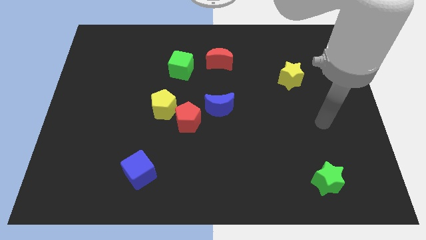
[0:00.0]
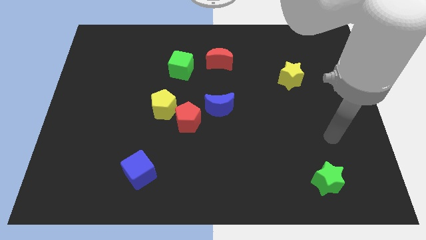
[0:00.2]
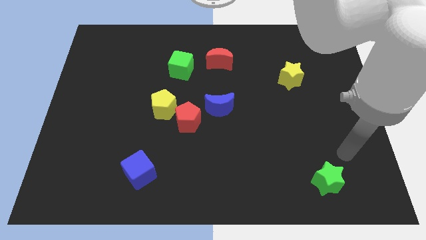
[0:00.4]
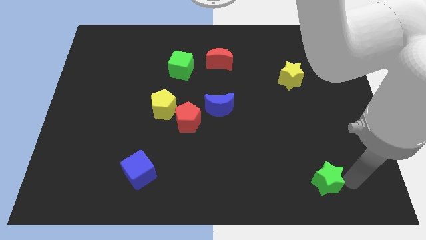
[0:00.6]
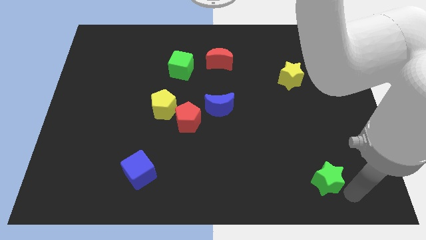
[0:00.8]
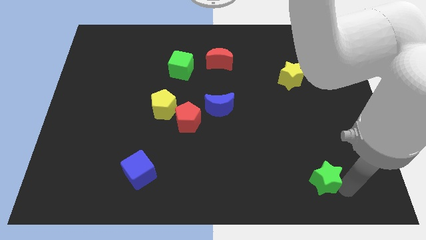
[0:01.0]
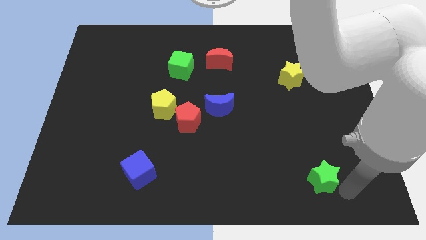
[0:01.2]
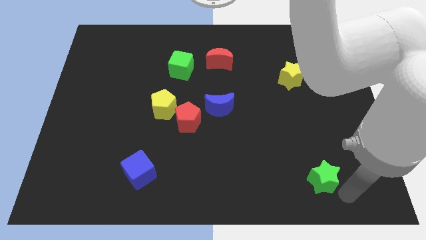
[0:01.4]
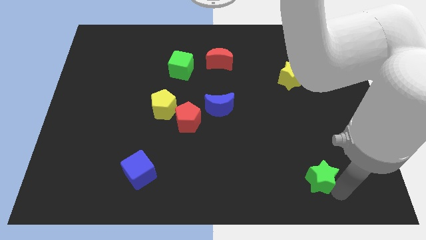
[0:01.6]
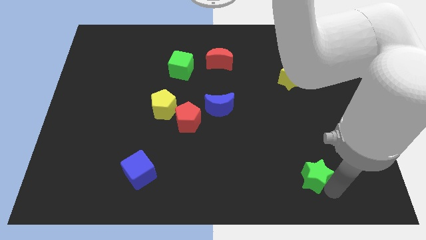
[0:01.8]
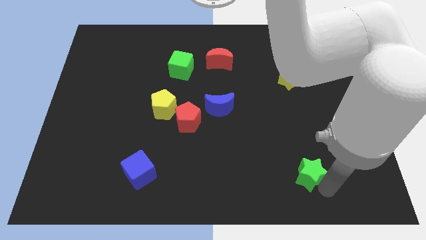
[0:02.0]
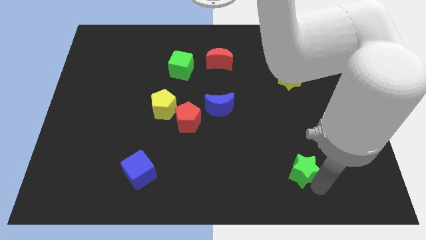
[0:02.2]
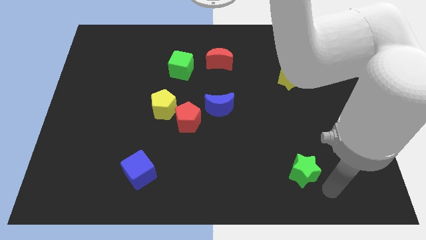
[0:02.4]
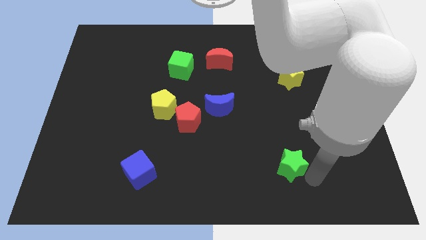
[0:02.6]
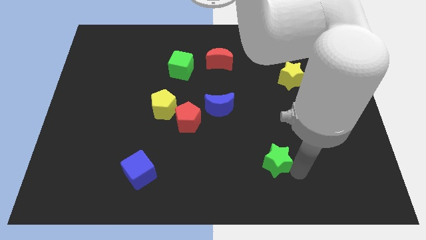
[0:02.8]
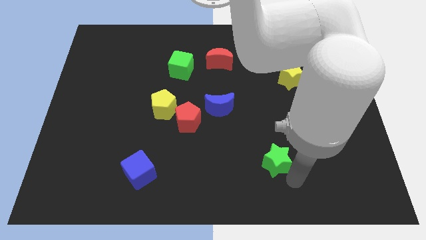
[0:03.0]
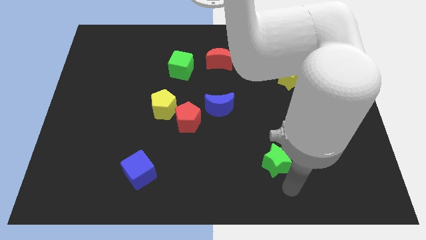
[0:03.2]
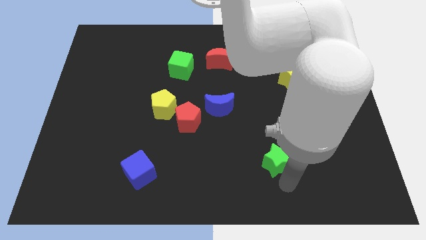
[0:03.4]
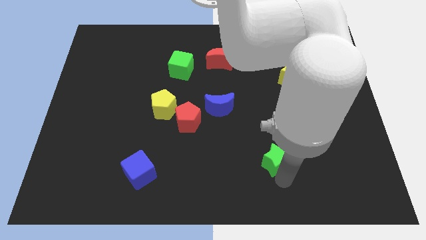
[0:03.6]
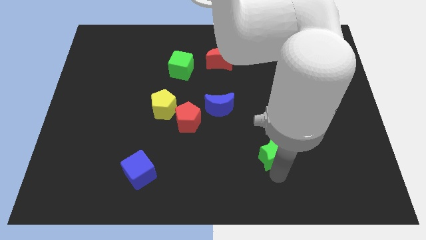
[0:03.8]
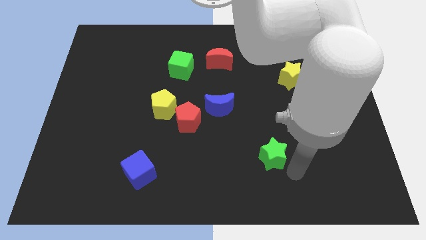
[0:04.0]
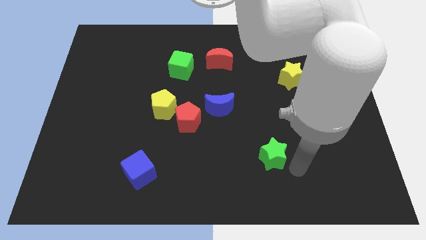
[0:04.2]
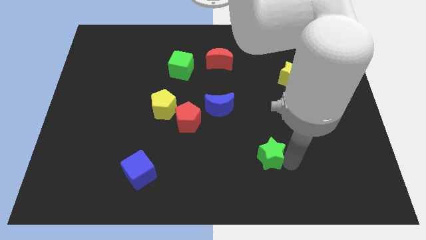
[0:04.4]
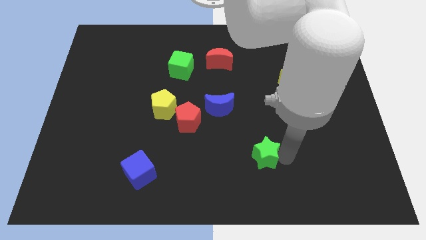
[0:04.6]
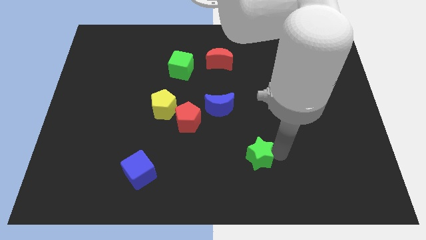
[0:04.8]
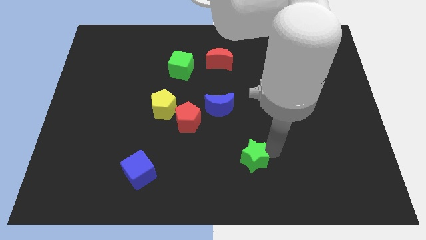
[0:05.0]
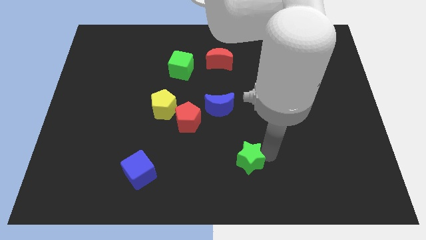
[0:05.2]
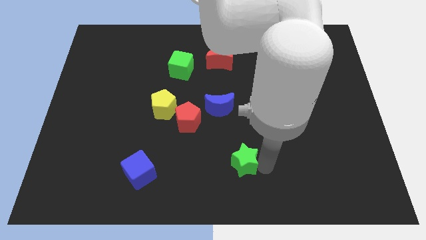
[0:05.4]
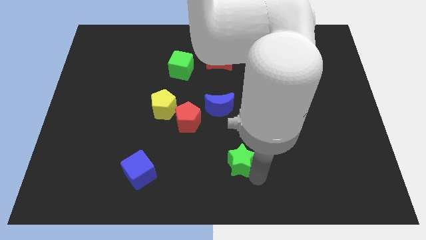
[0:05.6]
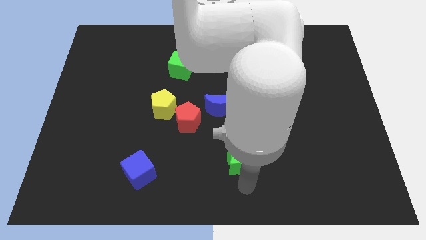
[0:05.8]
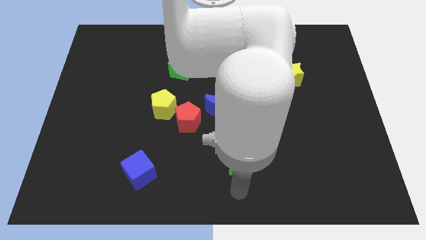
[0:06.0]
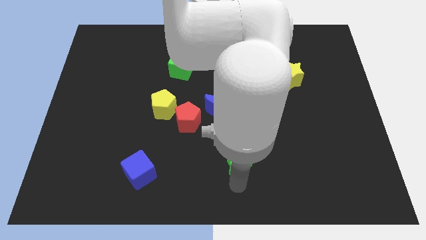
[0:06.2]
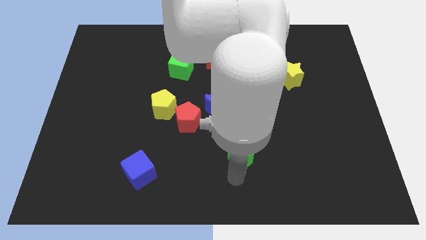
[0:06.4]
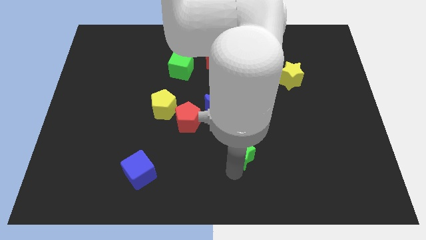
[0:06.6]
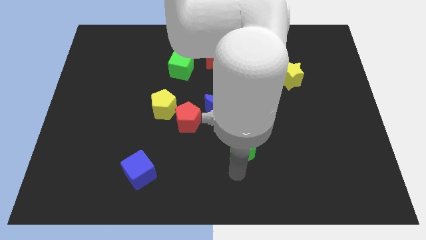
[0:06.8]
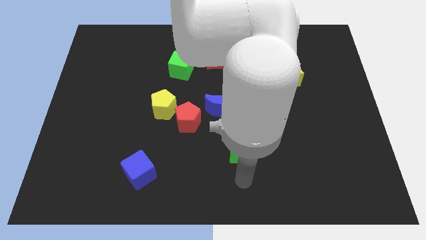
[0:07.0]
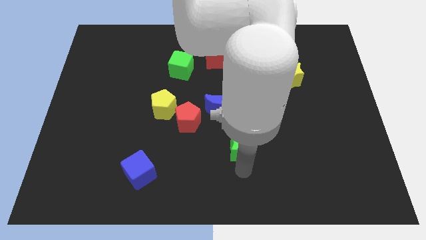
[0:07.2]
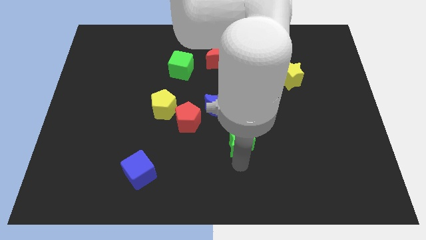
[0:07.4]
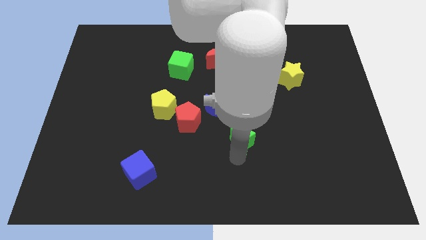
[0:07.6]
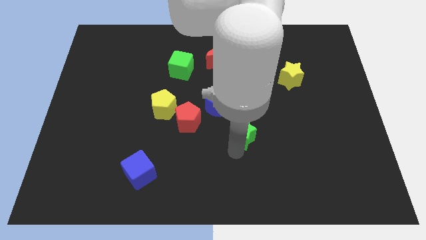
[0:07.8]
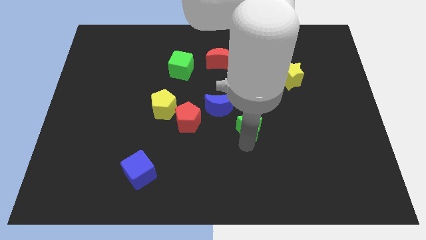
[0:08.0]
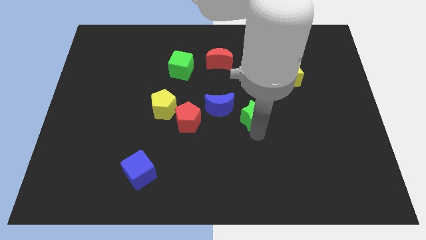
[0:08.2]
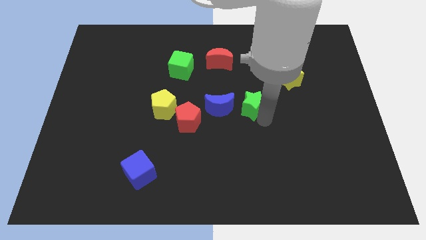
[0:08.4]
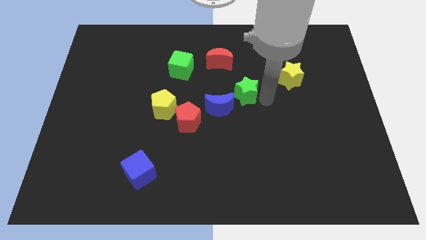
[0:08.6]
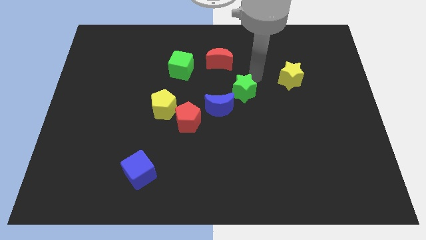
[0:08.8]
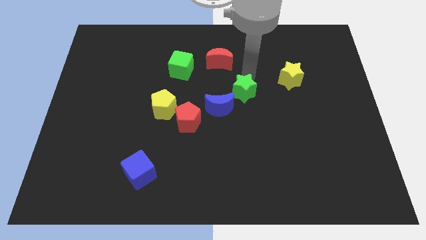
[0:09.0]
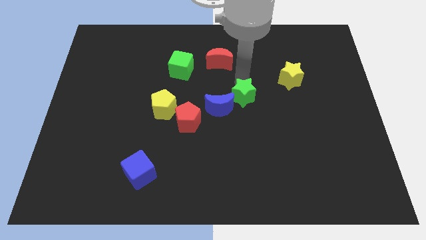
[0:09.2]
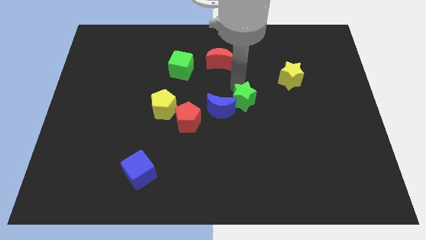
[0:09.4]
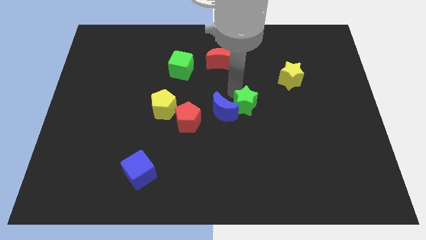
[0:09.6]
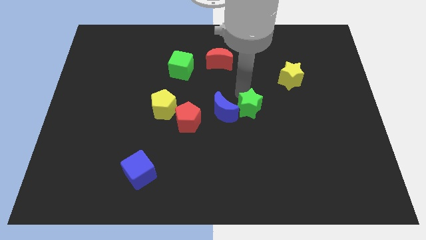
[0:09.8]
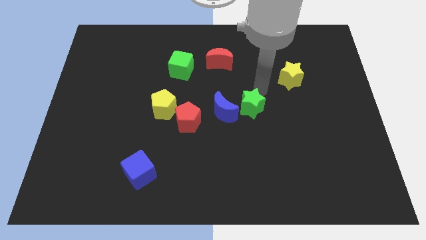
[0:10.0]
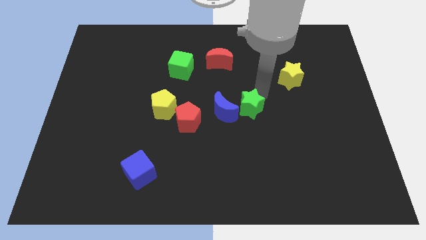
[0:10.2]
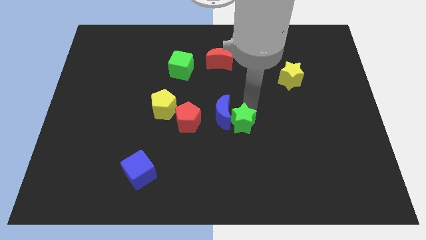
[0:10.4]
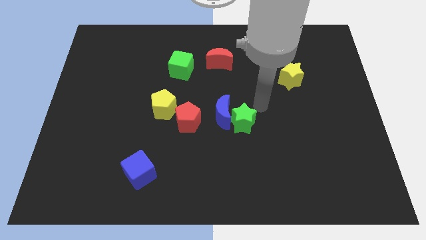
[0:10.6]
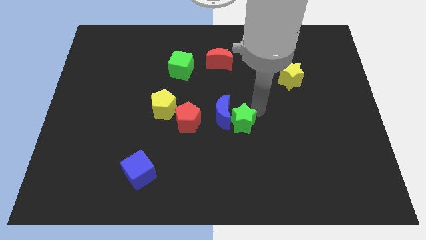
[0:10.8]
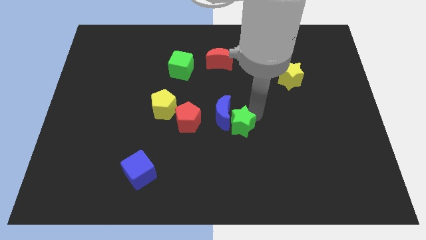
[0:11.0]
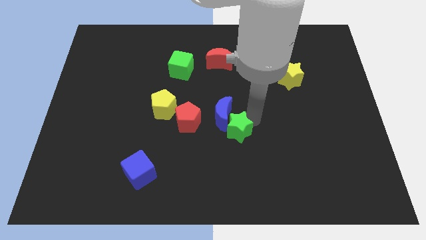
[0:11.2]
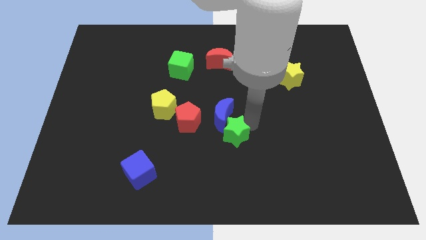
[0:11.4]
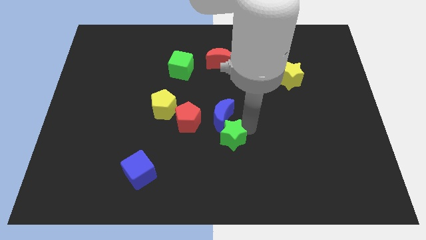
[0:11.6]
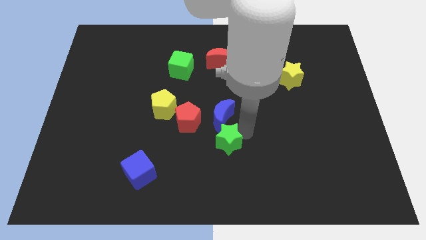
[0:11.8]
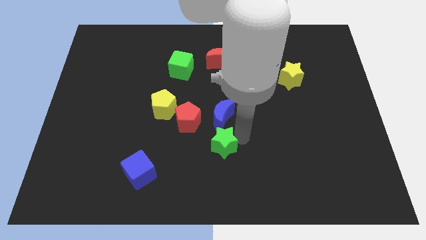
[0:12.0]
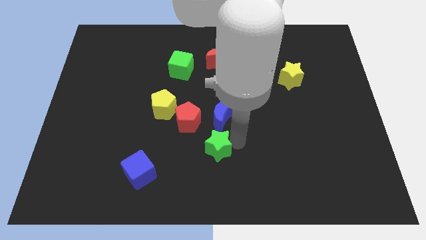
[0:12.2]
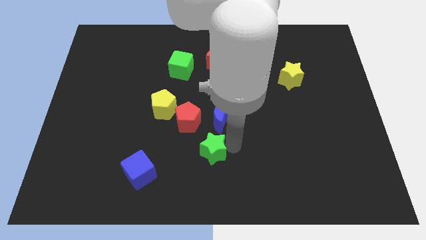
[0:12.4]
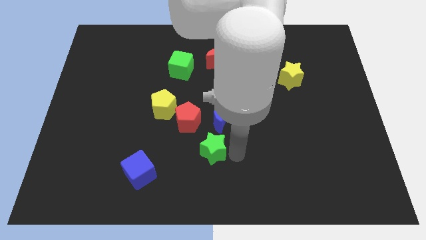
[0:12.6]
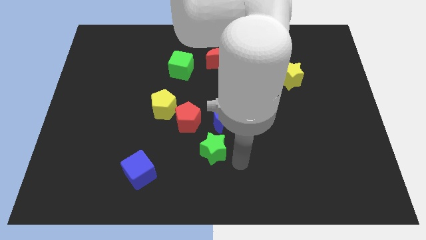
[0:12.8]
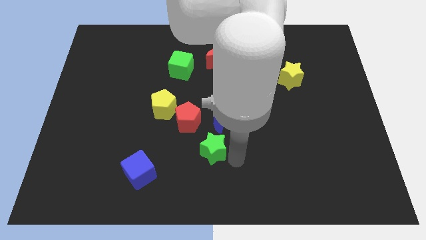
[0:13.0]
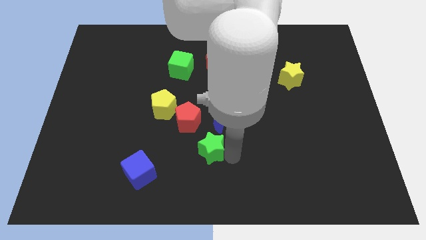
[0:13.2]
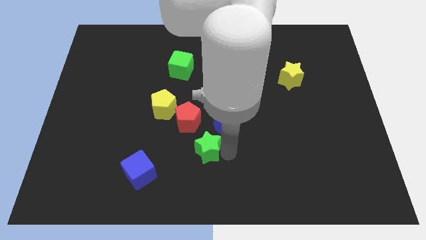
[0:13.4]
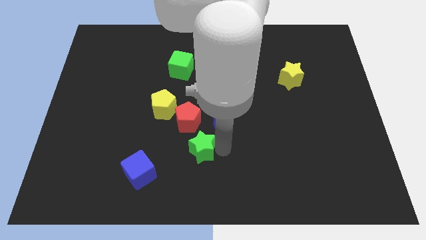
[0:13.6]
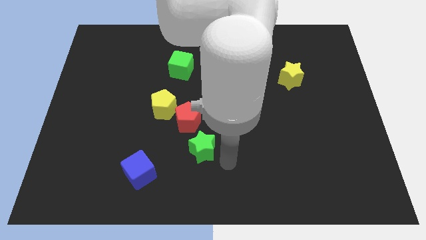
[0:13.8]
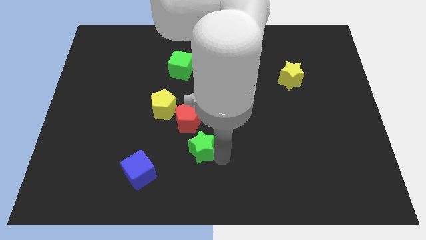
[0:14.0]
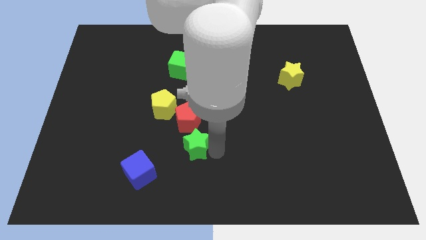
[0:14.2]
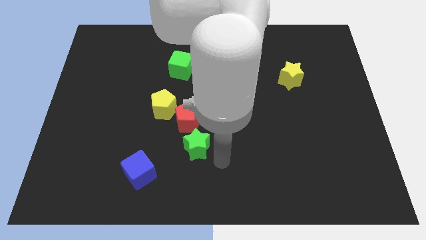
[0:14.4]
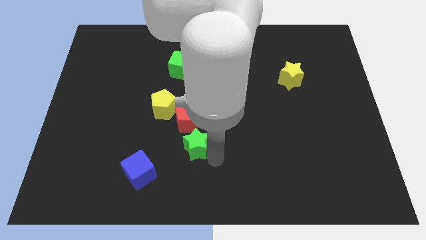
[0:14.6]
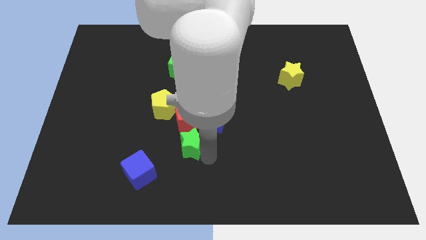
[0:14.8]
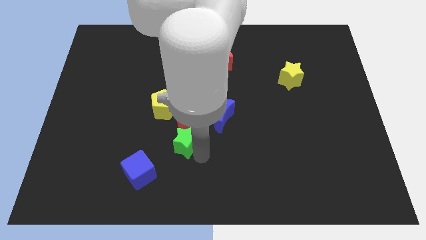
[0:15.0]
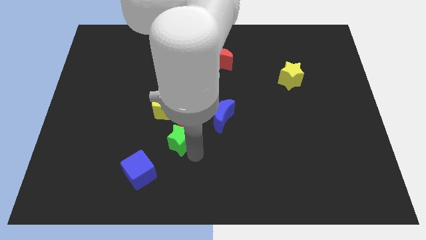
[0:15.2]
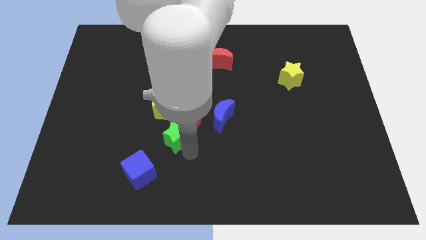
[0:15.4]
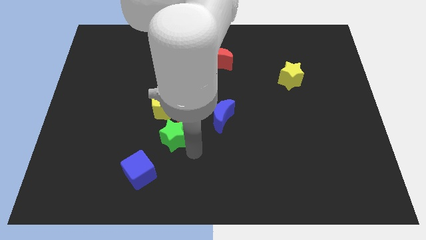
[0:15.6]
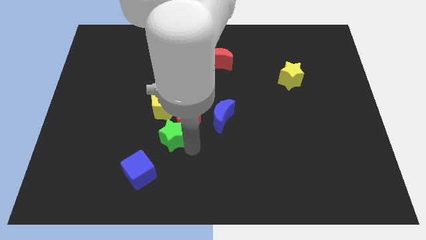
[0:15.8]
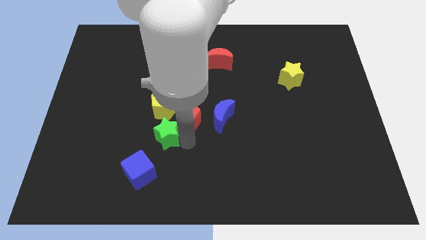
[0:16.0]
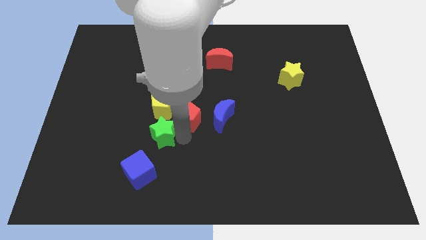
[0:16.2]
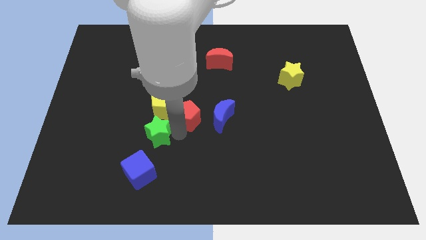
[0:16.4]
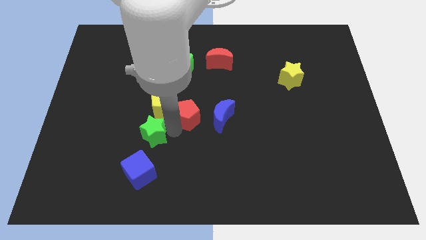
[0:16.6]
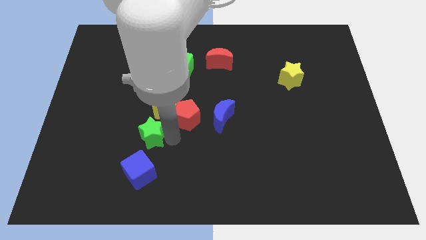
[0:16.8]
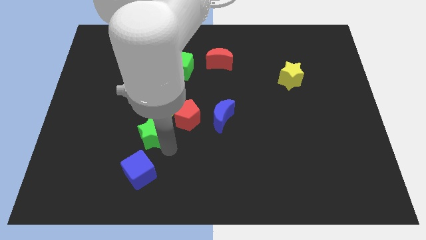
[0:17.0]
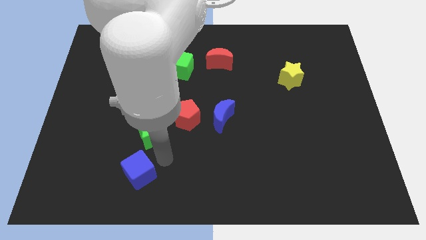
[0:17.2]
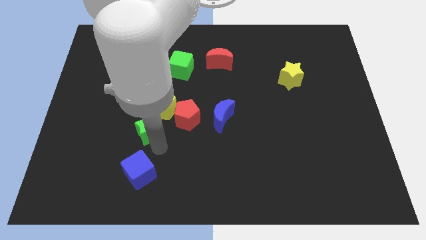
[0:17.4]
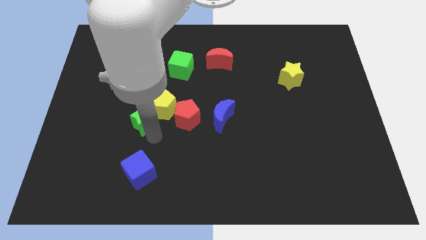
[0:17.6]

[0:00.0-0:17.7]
move the green star to the left of the yellow pentagon
